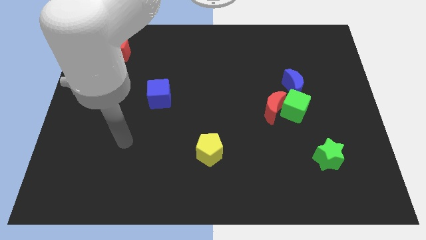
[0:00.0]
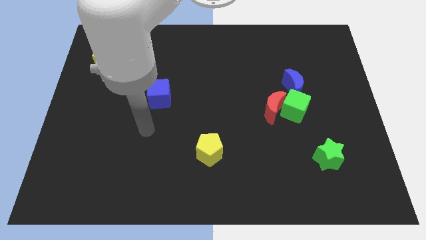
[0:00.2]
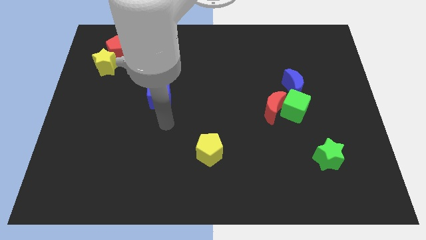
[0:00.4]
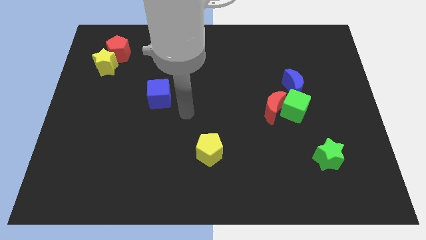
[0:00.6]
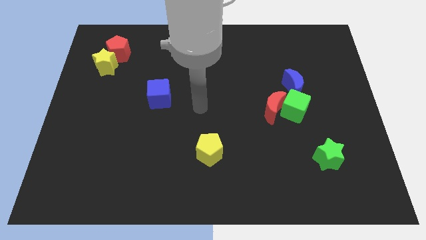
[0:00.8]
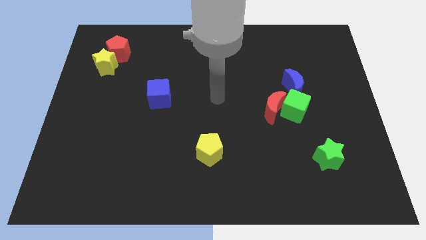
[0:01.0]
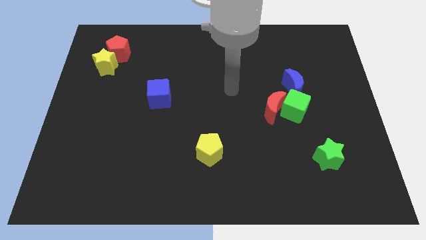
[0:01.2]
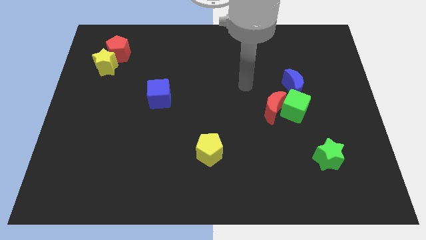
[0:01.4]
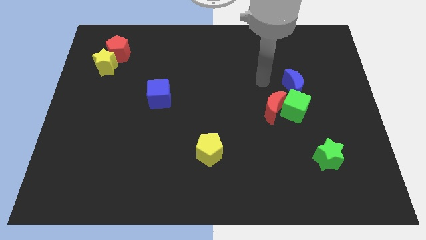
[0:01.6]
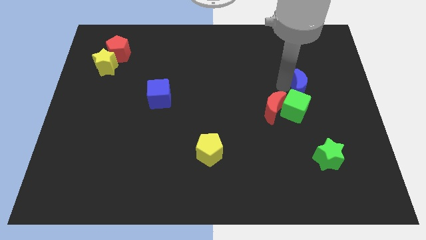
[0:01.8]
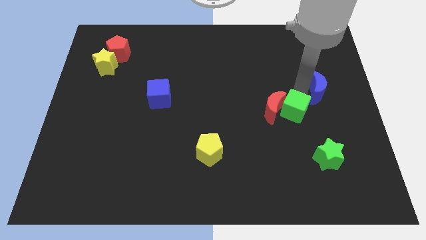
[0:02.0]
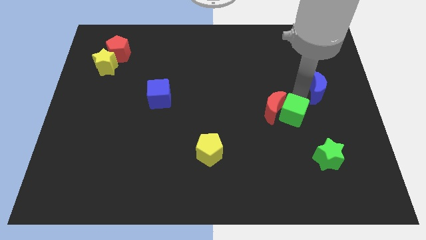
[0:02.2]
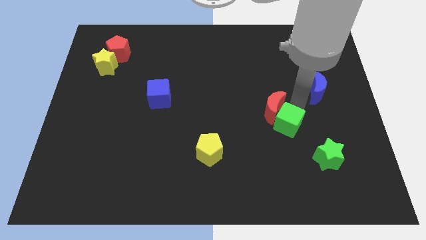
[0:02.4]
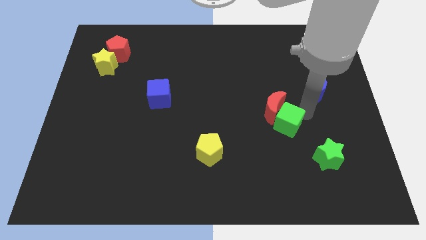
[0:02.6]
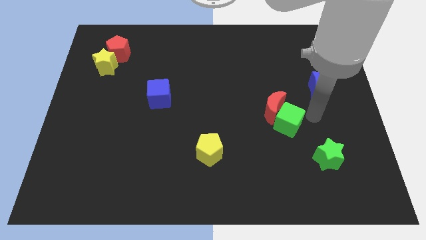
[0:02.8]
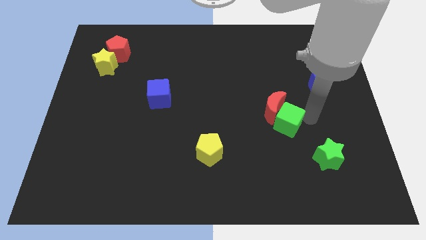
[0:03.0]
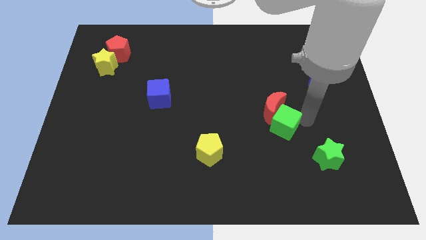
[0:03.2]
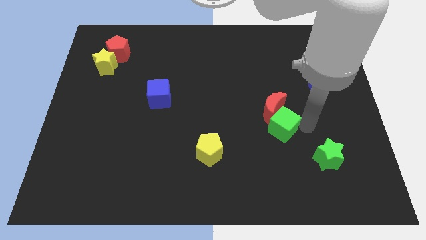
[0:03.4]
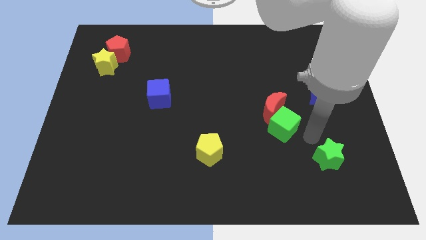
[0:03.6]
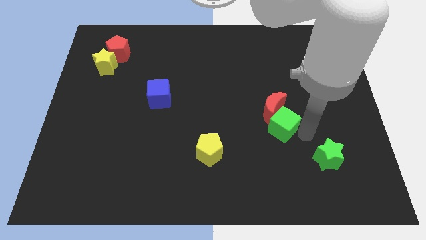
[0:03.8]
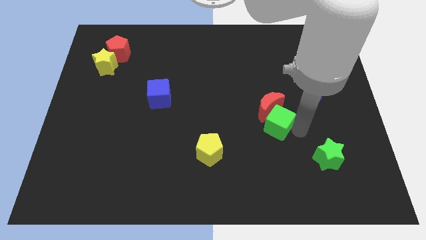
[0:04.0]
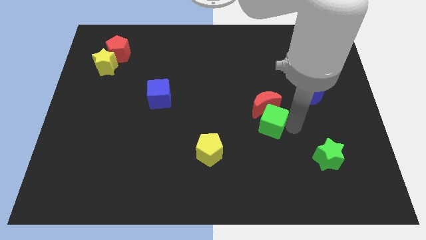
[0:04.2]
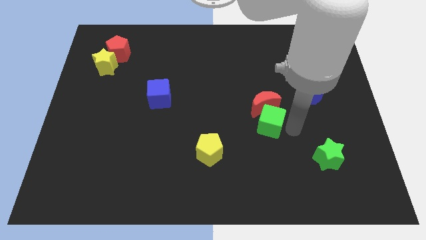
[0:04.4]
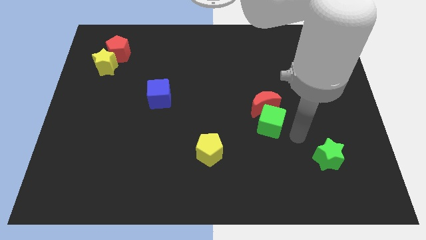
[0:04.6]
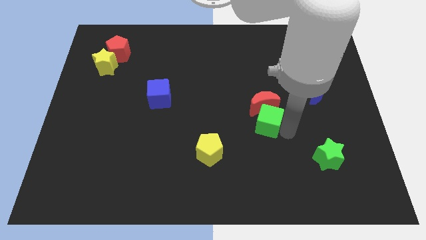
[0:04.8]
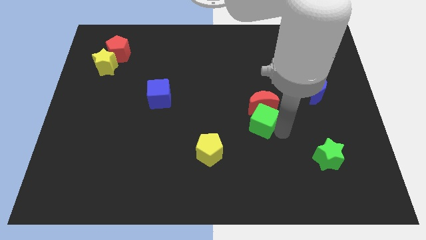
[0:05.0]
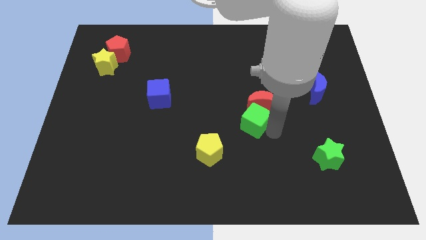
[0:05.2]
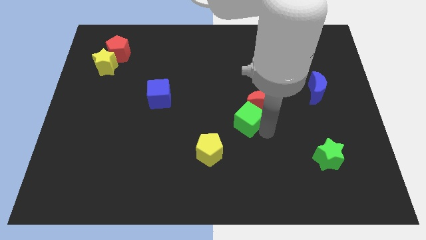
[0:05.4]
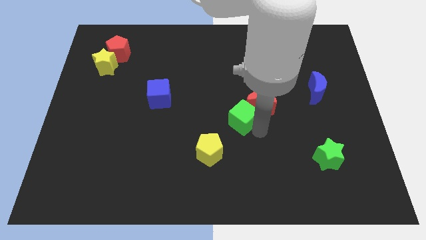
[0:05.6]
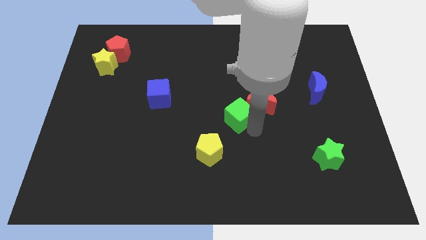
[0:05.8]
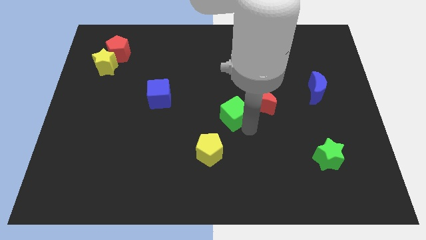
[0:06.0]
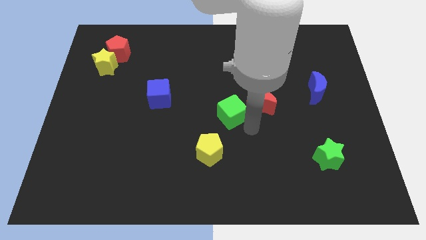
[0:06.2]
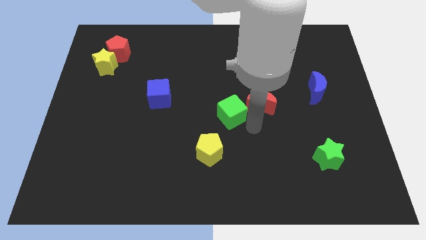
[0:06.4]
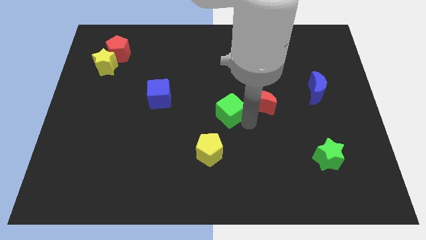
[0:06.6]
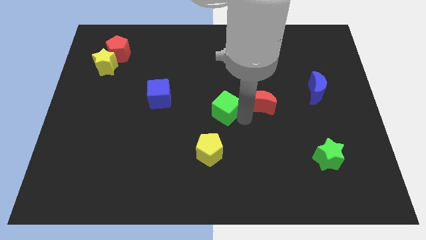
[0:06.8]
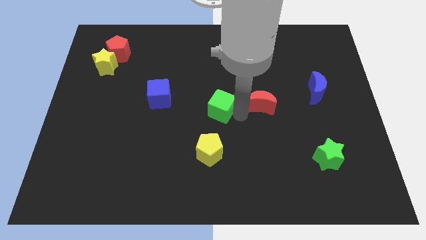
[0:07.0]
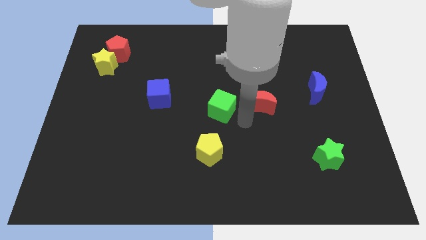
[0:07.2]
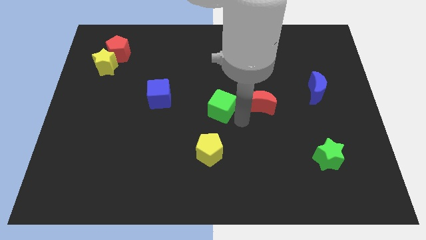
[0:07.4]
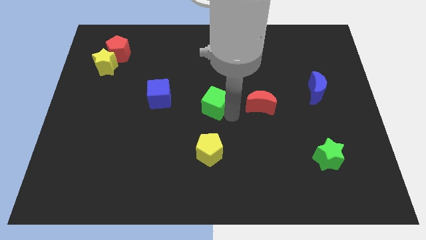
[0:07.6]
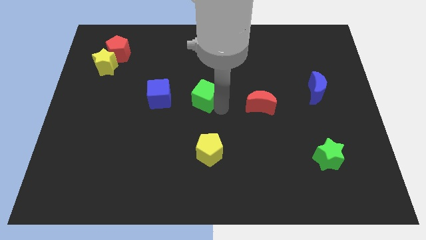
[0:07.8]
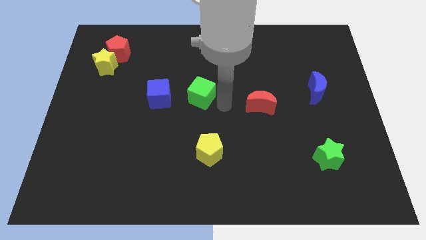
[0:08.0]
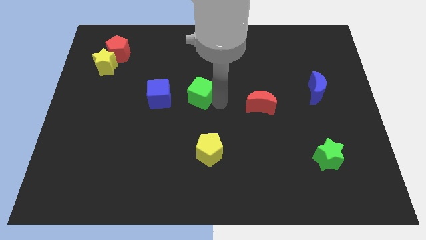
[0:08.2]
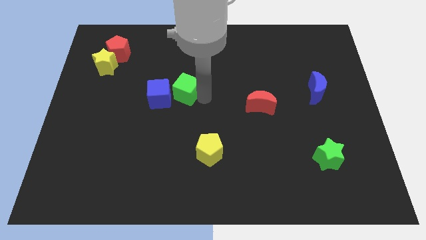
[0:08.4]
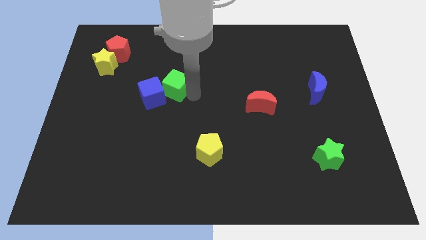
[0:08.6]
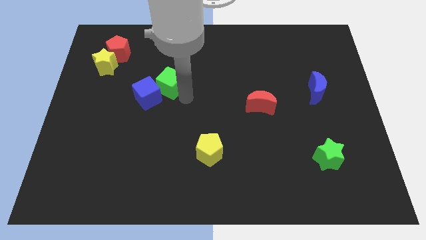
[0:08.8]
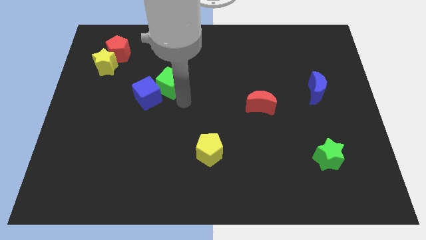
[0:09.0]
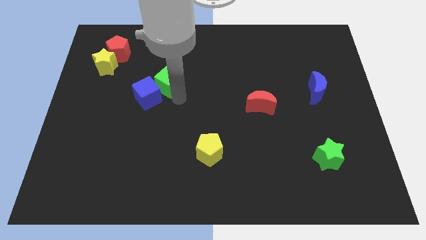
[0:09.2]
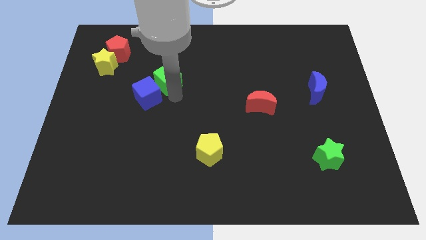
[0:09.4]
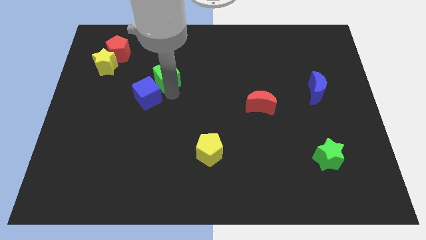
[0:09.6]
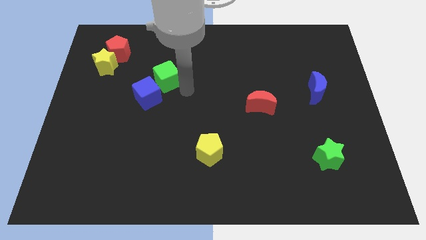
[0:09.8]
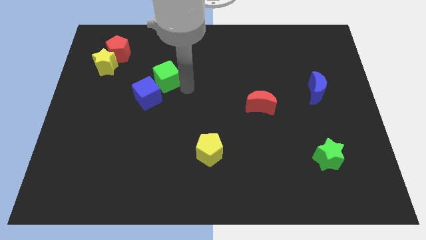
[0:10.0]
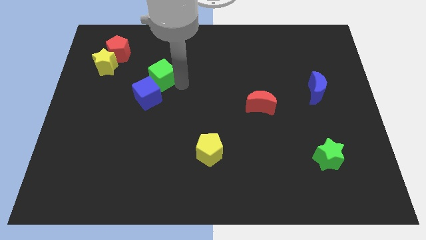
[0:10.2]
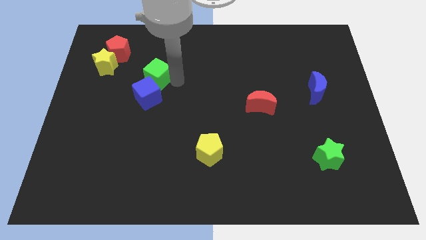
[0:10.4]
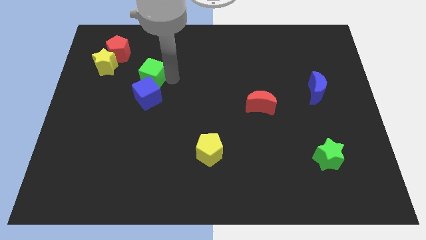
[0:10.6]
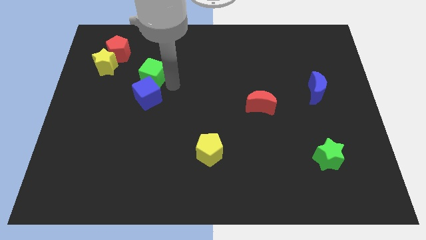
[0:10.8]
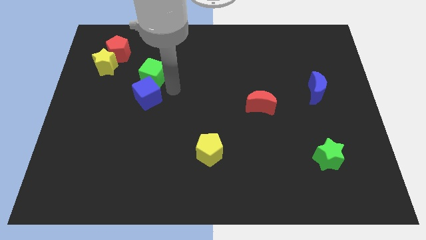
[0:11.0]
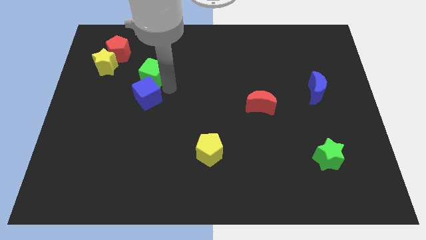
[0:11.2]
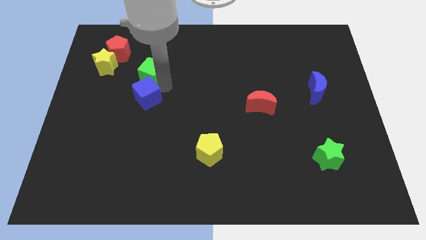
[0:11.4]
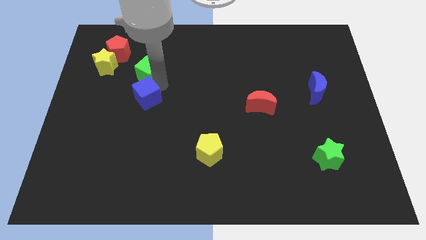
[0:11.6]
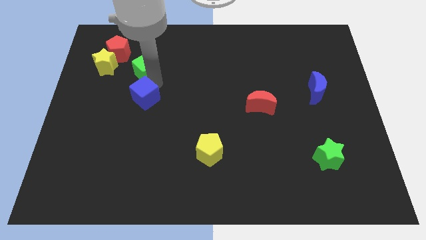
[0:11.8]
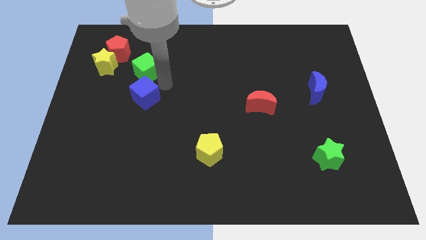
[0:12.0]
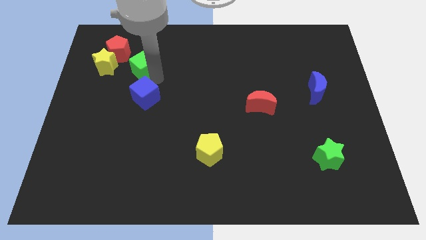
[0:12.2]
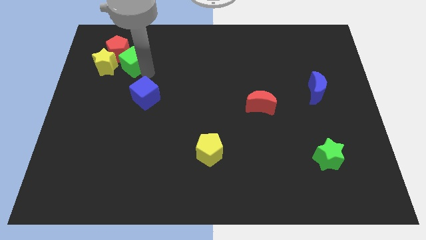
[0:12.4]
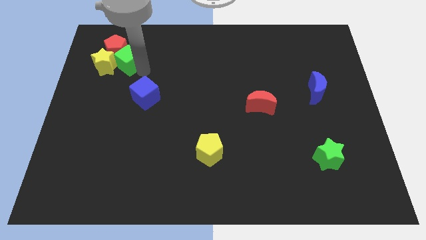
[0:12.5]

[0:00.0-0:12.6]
push the green cube next to the red pentagon

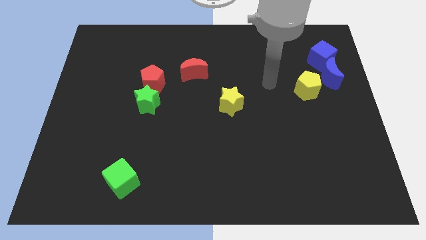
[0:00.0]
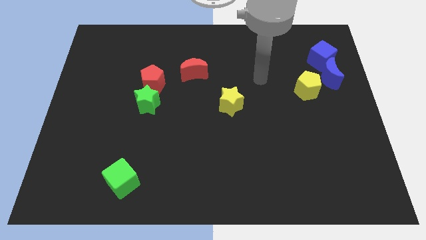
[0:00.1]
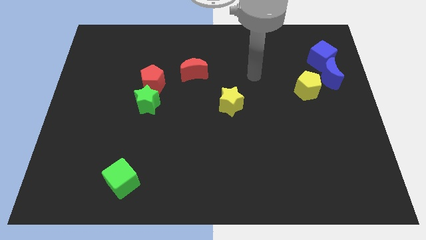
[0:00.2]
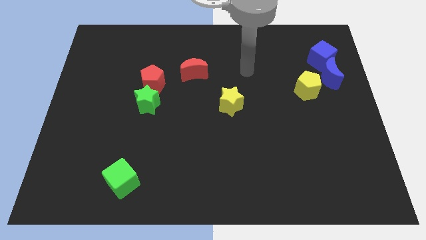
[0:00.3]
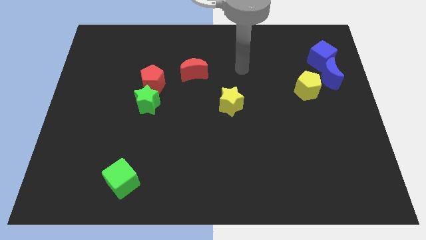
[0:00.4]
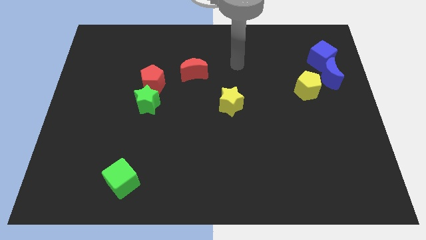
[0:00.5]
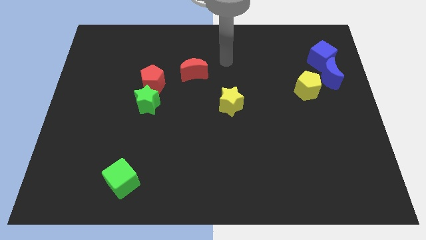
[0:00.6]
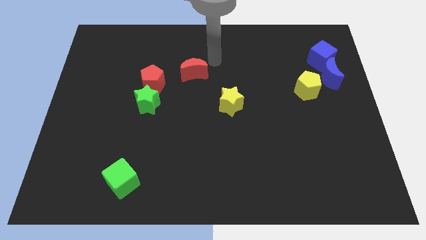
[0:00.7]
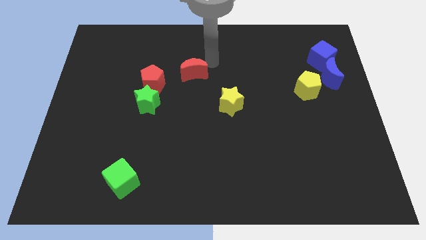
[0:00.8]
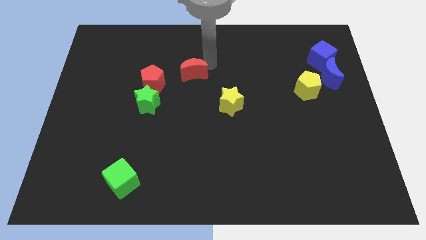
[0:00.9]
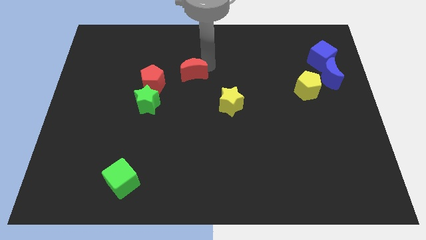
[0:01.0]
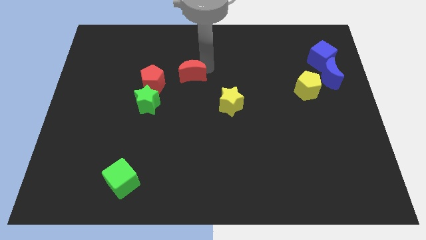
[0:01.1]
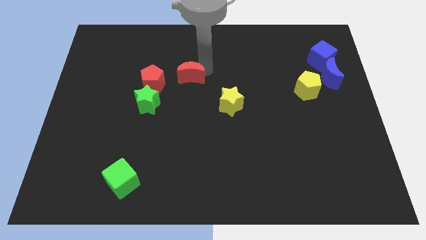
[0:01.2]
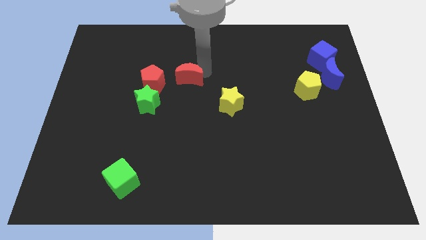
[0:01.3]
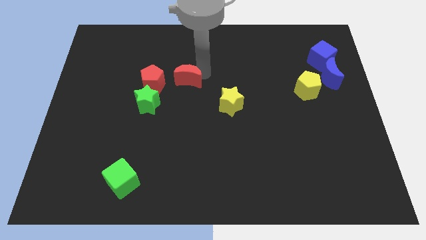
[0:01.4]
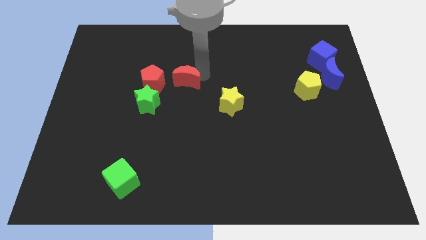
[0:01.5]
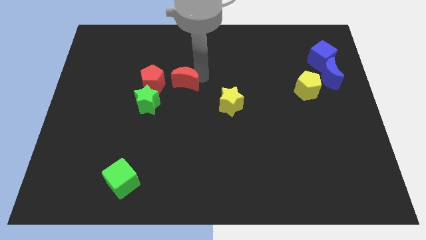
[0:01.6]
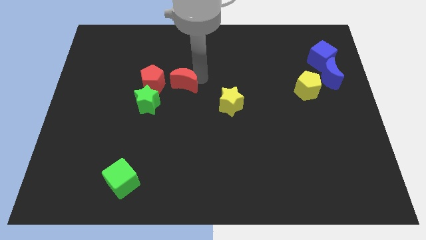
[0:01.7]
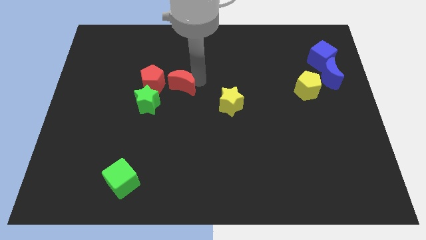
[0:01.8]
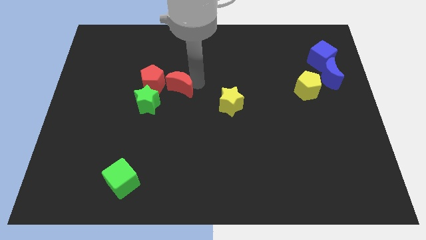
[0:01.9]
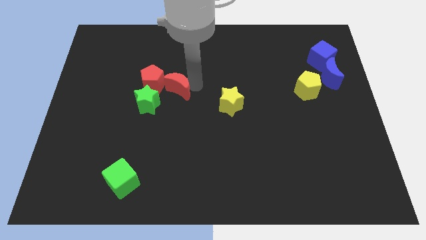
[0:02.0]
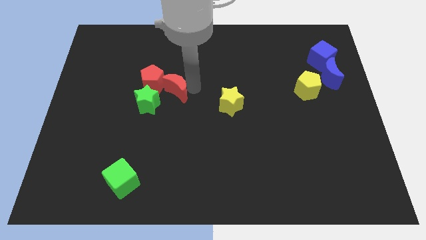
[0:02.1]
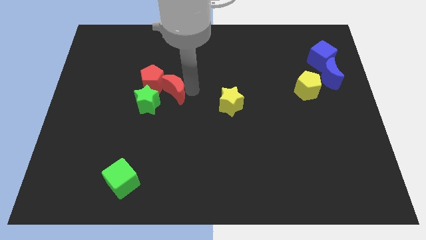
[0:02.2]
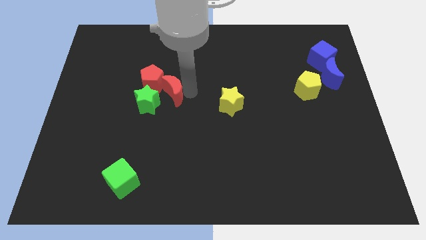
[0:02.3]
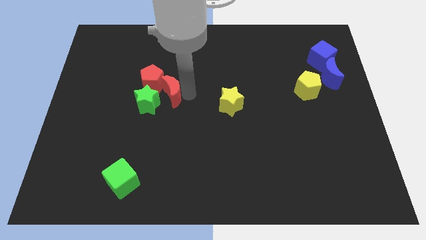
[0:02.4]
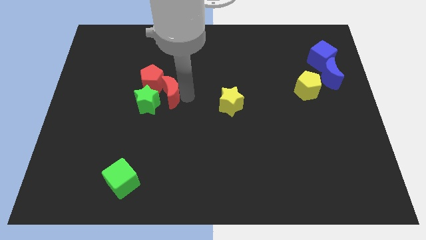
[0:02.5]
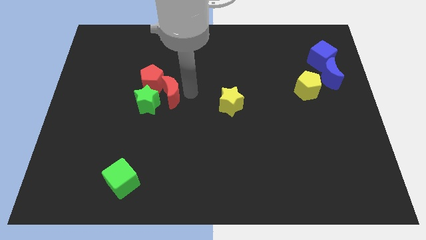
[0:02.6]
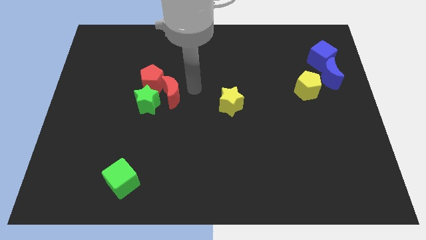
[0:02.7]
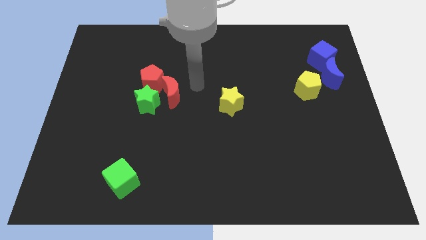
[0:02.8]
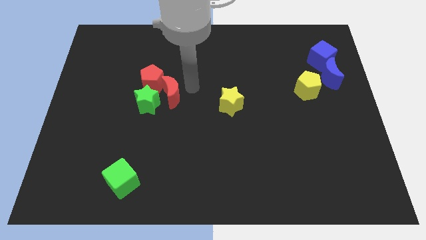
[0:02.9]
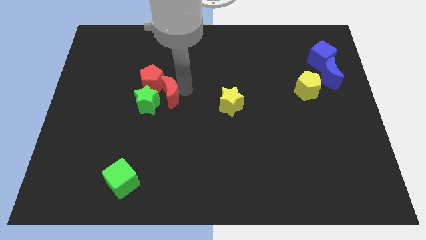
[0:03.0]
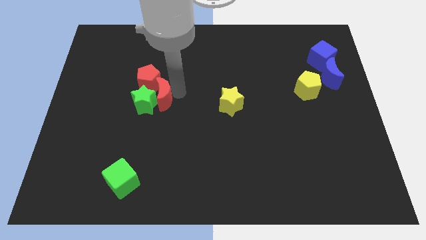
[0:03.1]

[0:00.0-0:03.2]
push the red moon next to the green star
